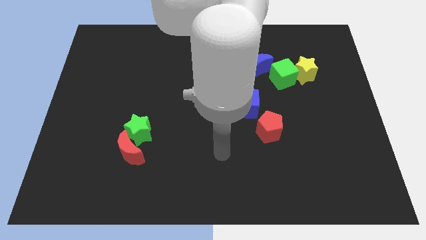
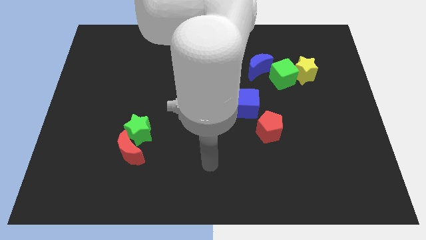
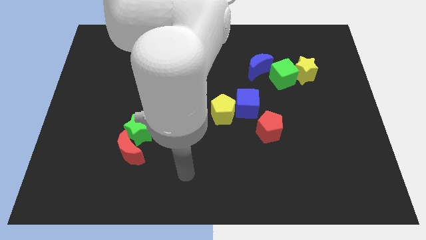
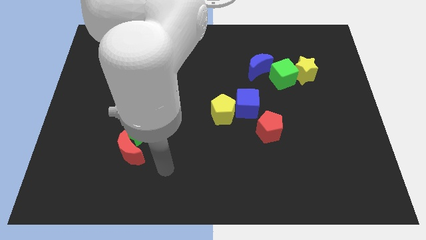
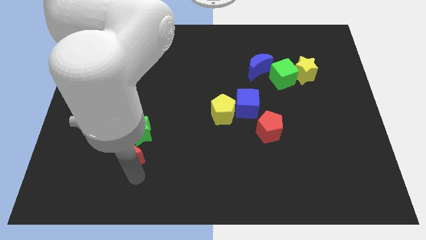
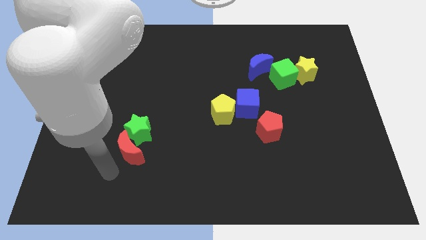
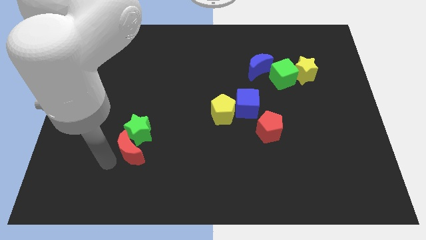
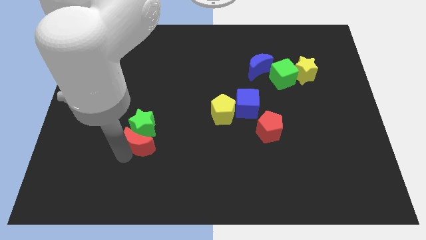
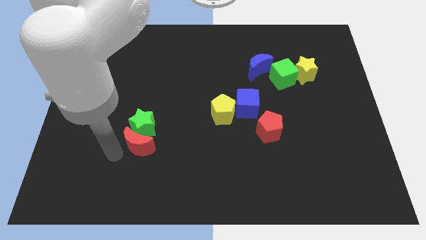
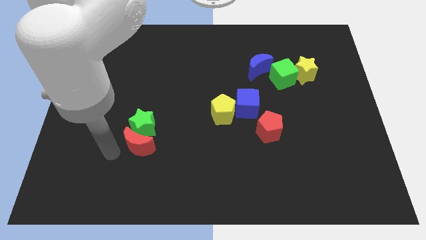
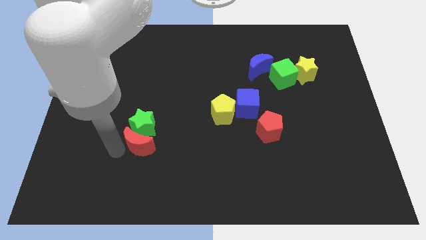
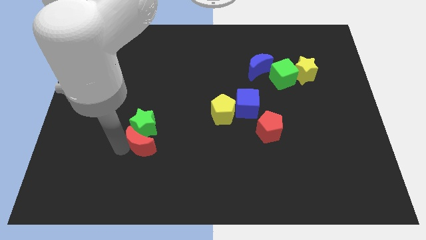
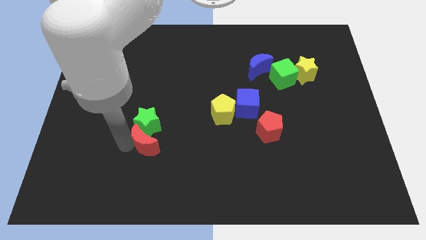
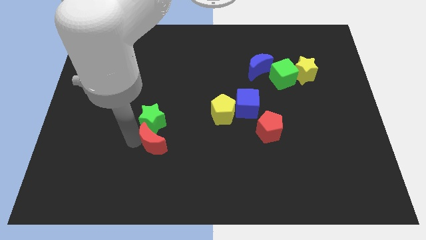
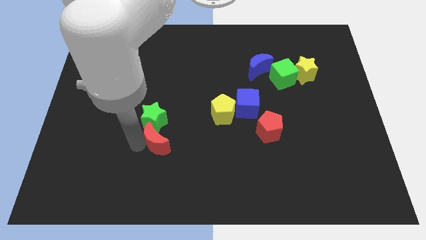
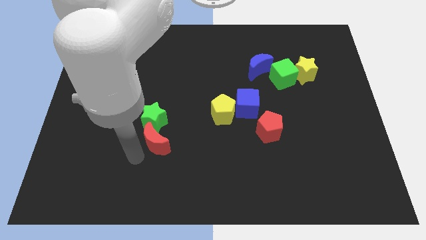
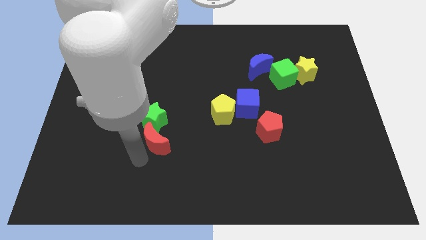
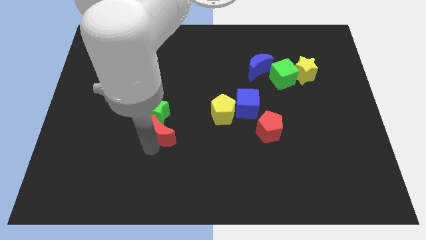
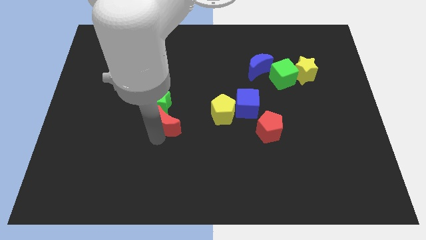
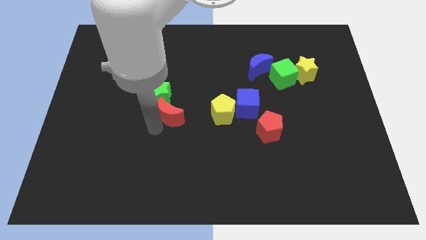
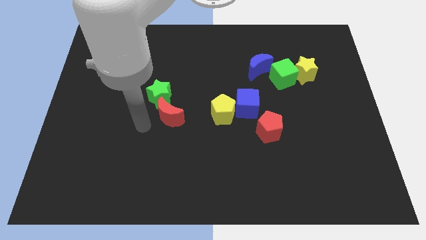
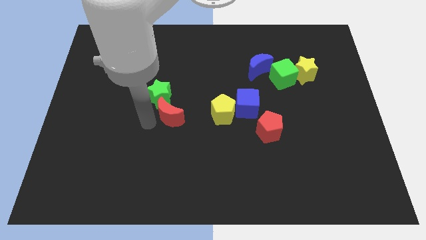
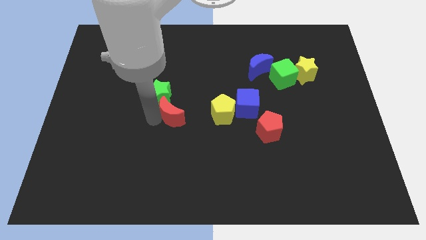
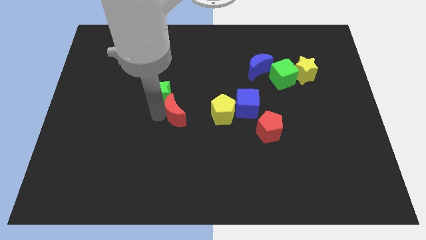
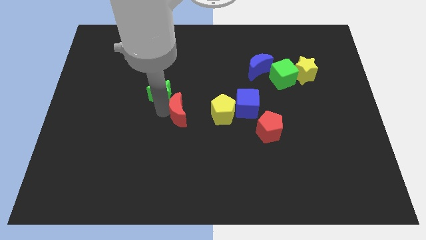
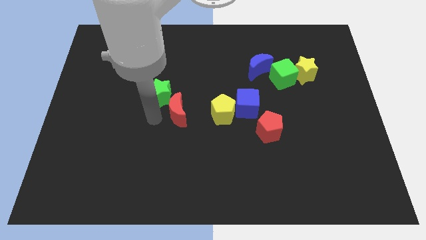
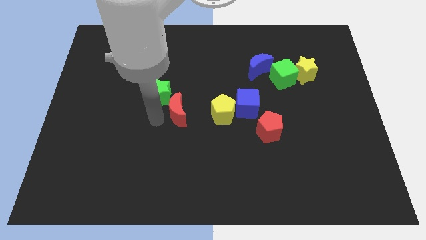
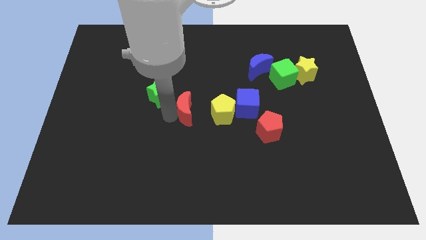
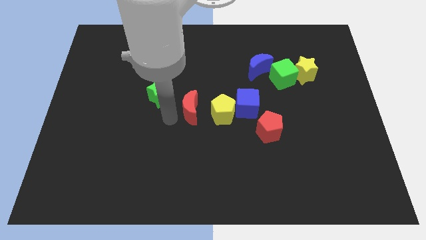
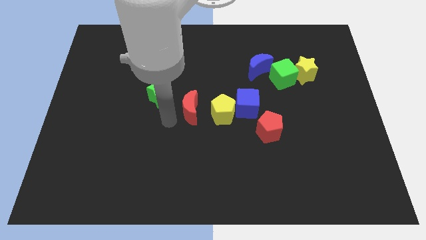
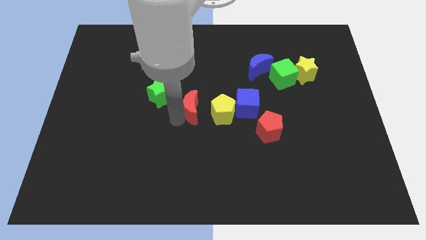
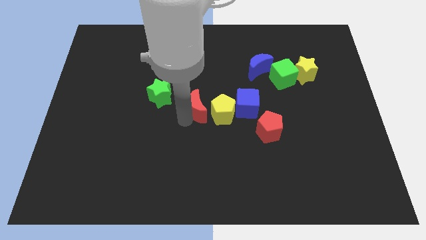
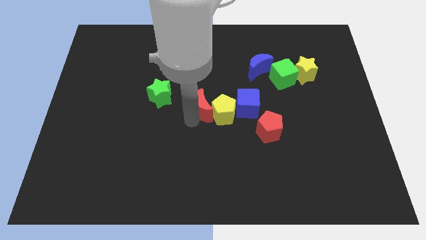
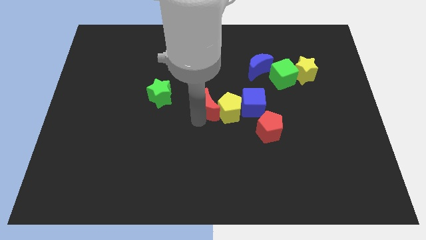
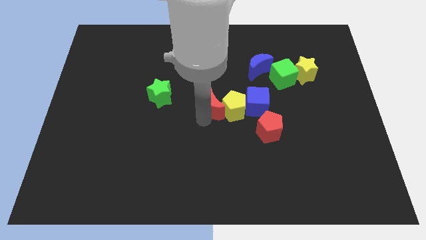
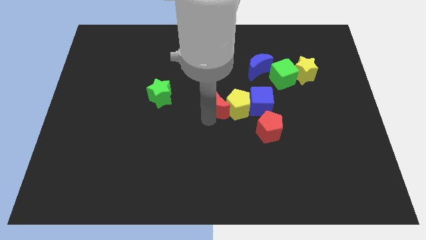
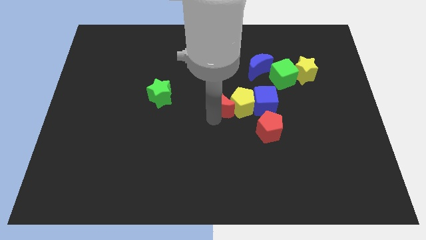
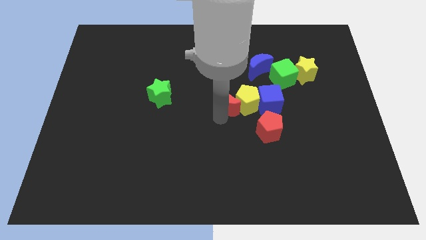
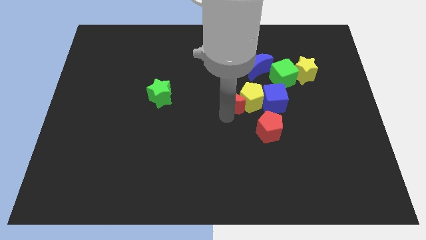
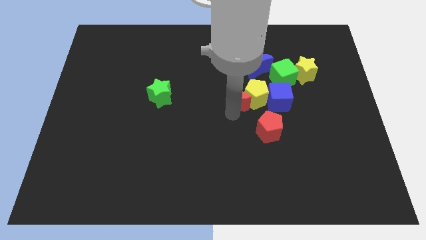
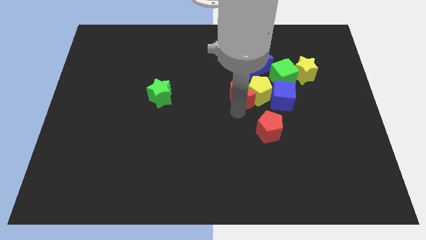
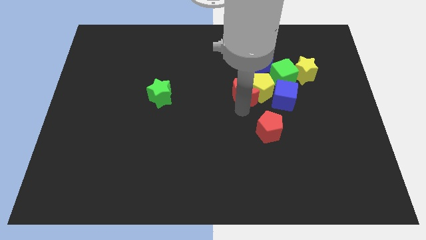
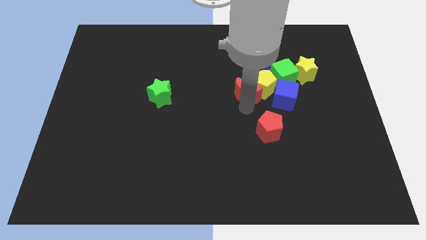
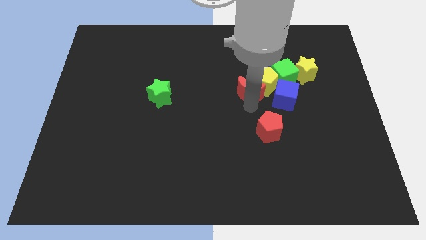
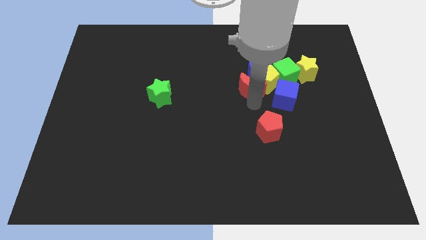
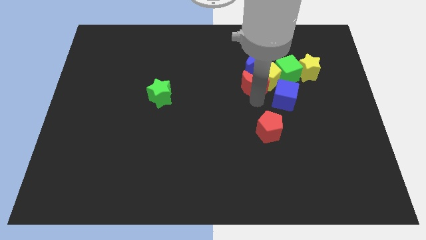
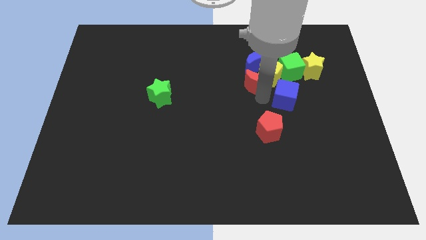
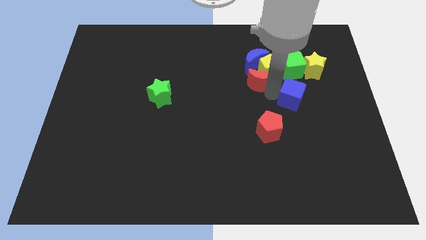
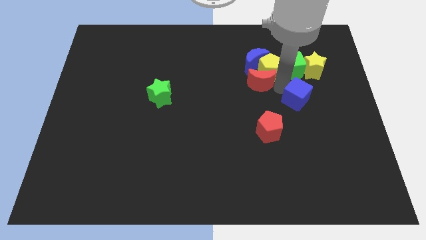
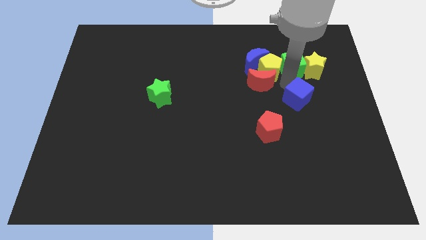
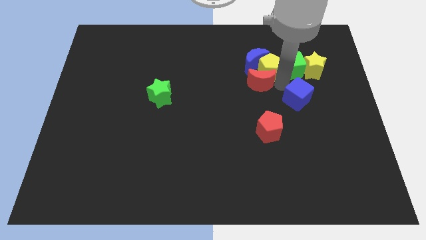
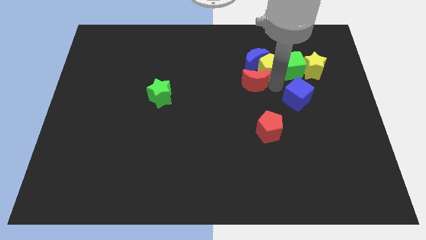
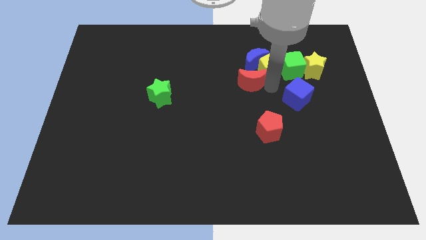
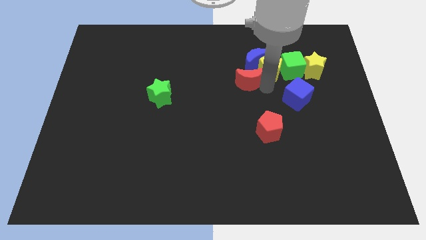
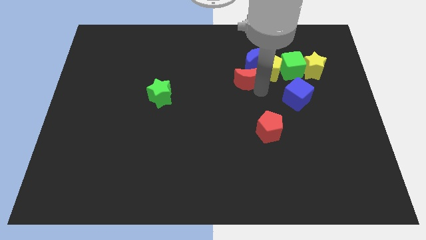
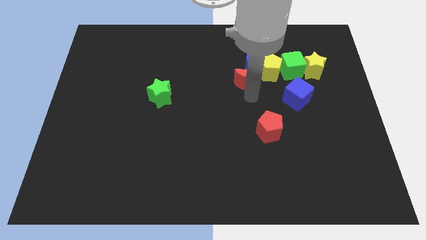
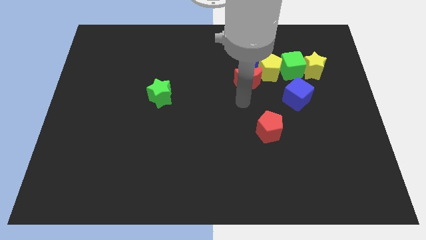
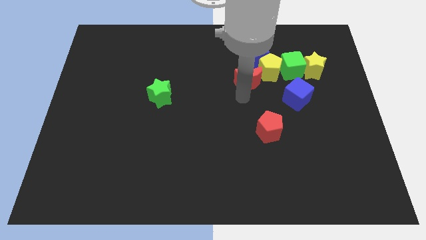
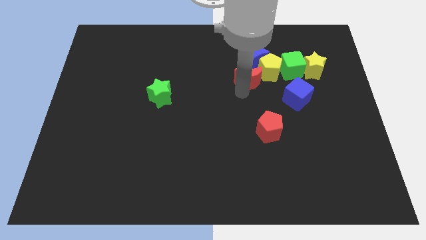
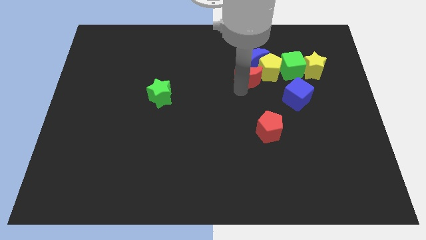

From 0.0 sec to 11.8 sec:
put the red moon to the blue moon

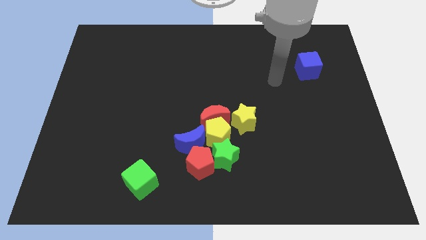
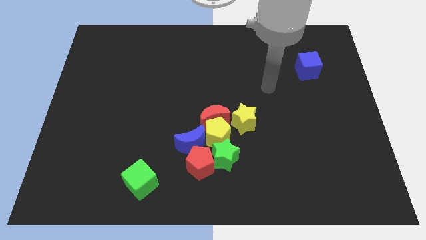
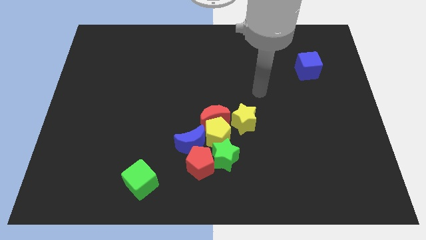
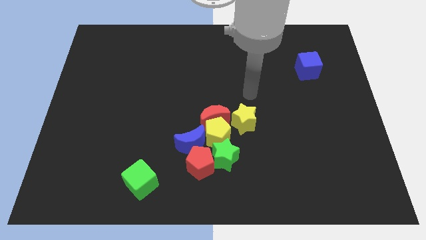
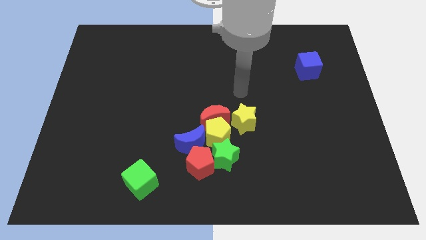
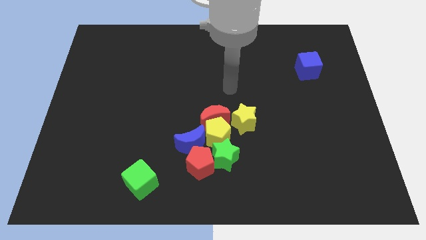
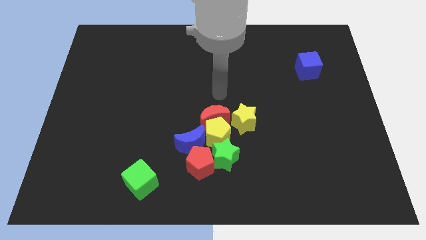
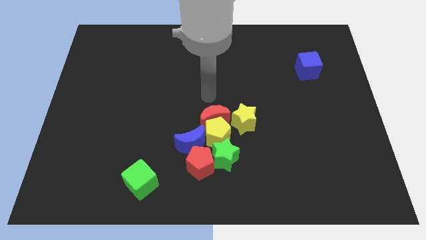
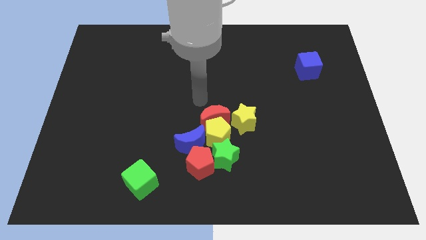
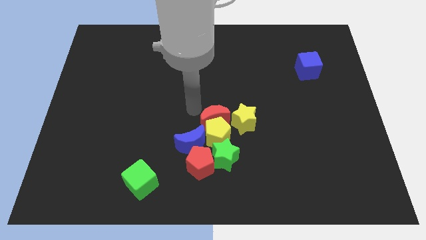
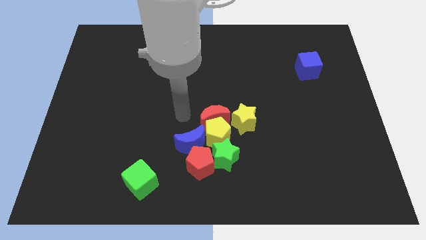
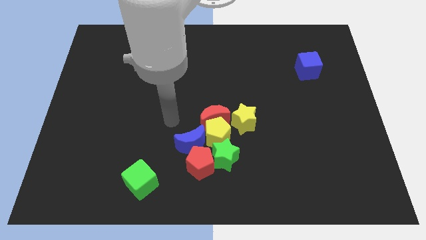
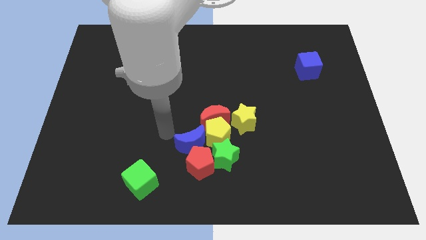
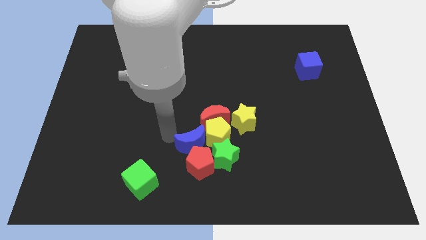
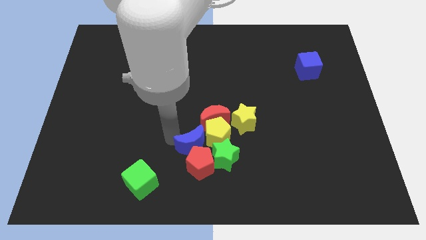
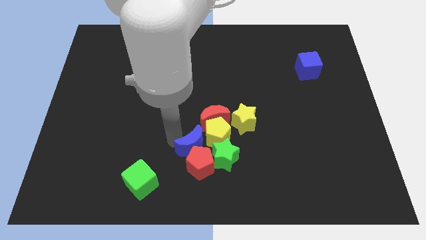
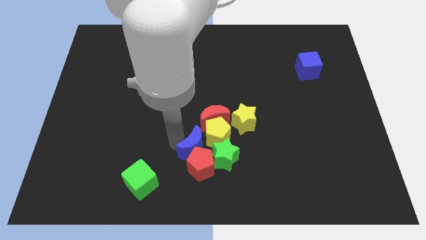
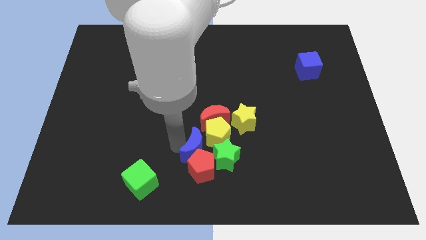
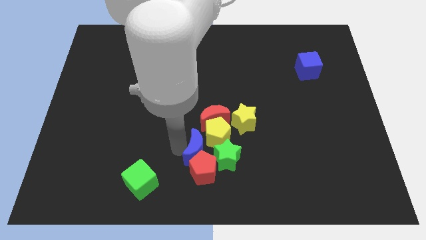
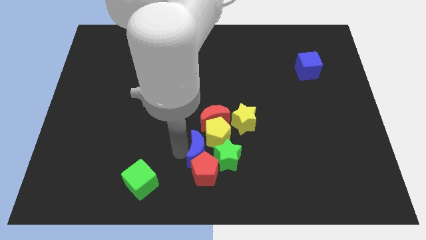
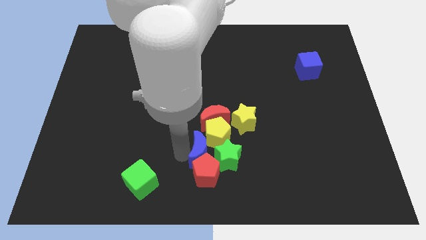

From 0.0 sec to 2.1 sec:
move the blue moon close to the green star
